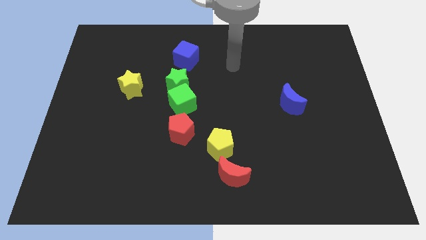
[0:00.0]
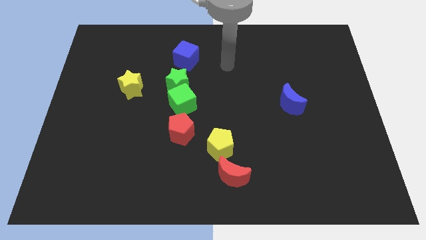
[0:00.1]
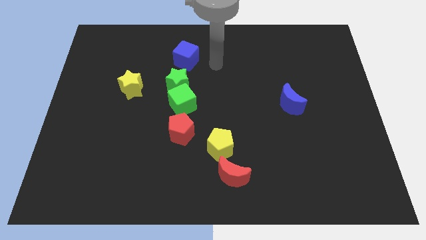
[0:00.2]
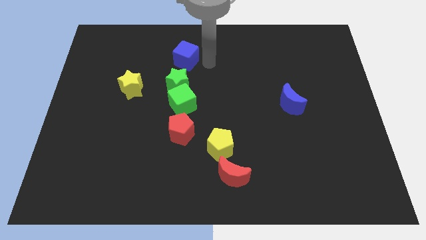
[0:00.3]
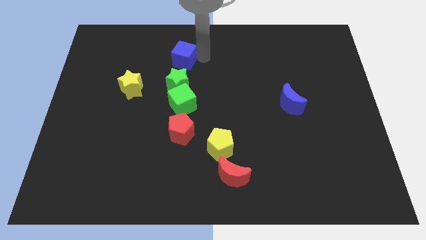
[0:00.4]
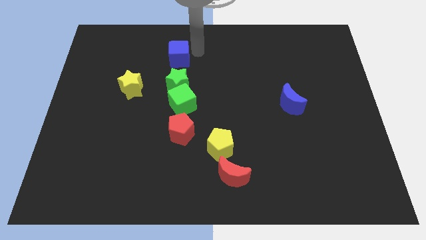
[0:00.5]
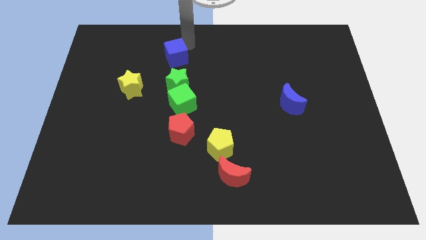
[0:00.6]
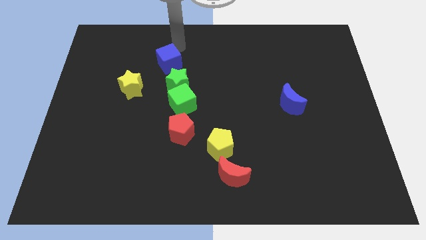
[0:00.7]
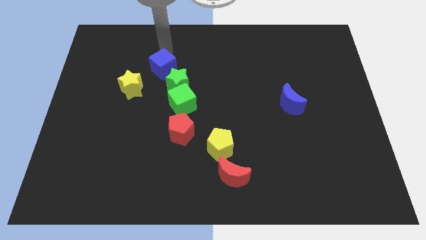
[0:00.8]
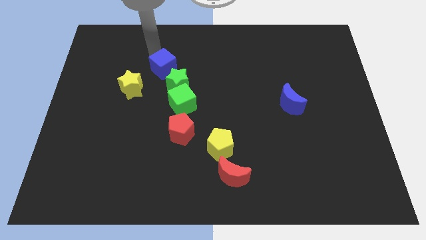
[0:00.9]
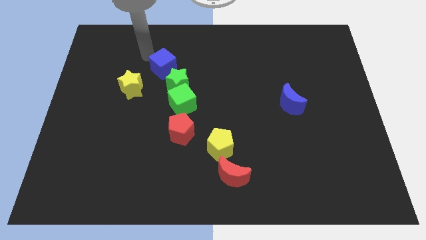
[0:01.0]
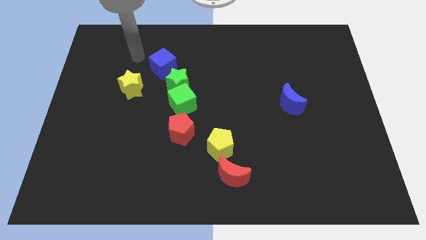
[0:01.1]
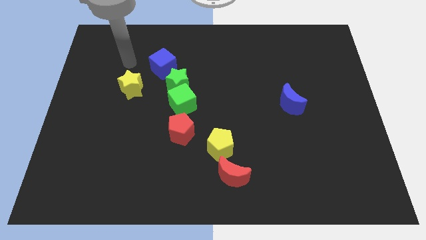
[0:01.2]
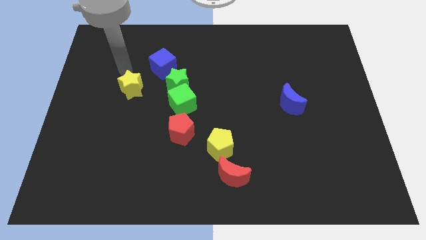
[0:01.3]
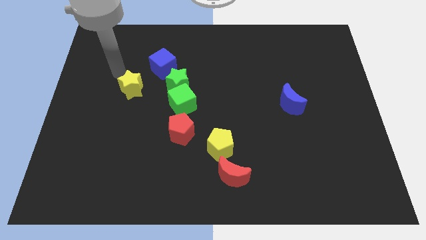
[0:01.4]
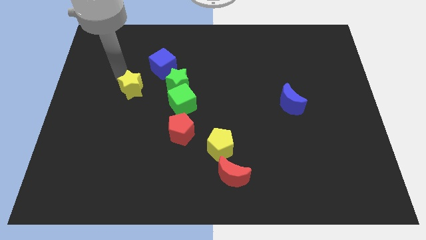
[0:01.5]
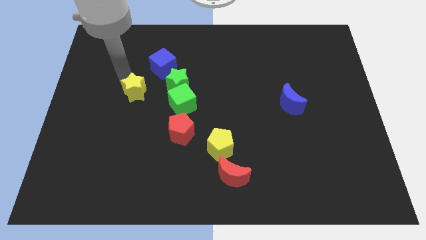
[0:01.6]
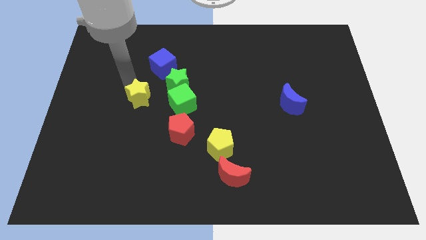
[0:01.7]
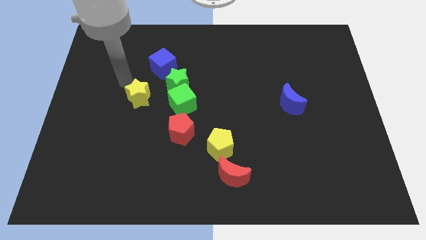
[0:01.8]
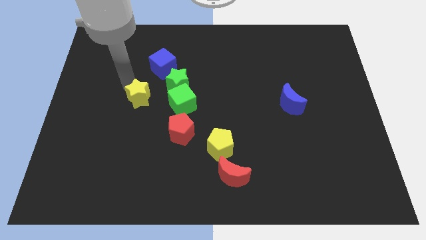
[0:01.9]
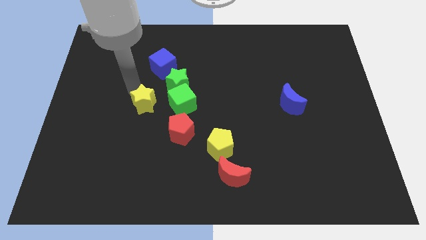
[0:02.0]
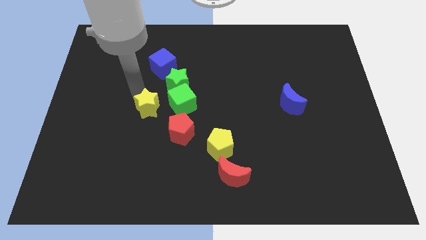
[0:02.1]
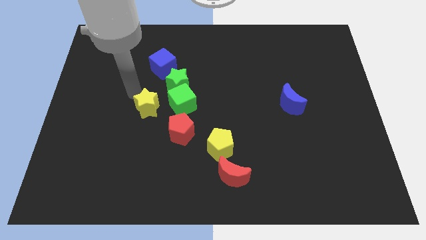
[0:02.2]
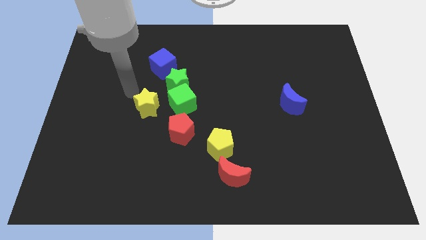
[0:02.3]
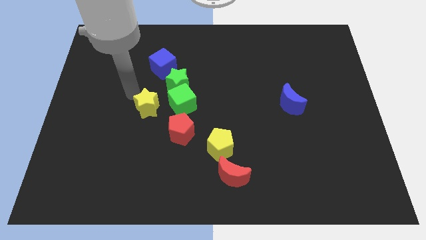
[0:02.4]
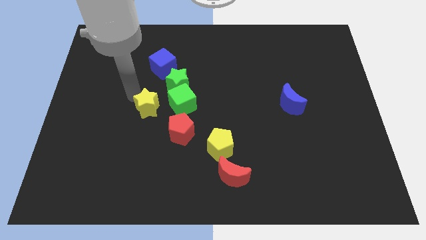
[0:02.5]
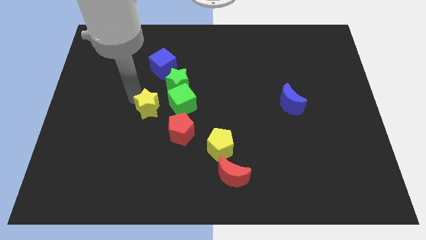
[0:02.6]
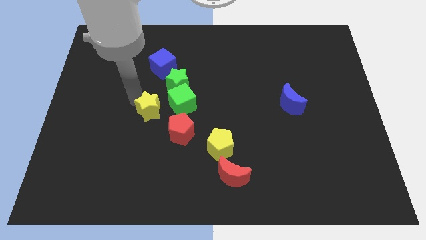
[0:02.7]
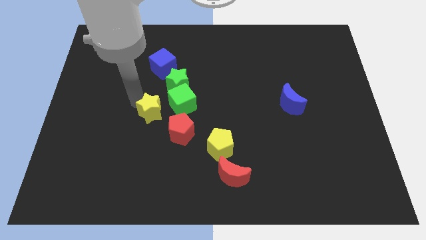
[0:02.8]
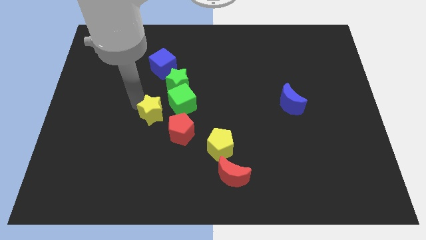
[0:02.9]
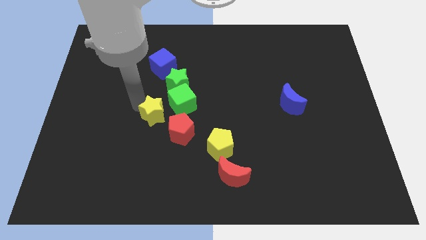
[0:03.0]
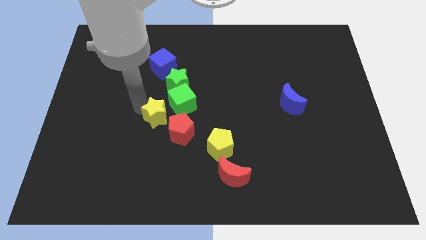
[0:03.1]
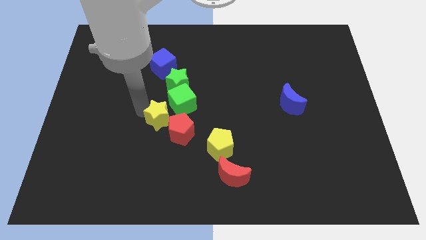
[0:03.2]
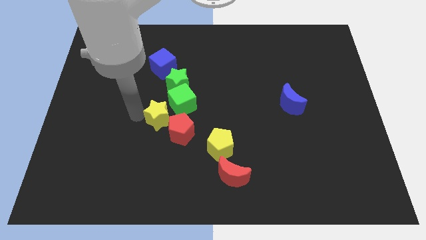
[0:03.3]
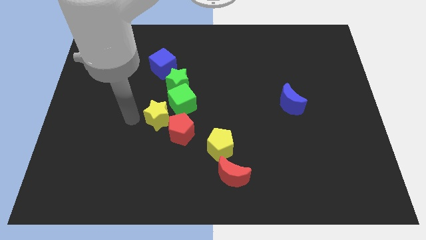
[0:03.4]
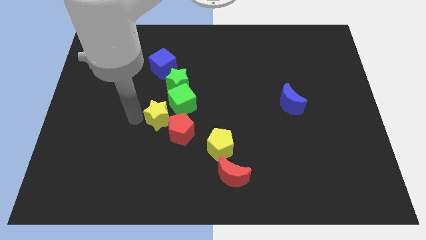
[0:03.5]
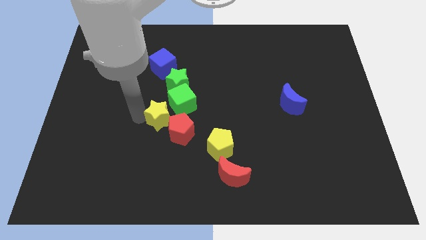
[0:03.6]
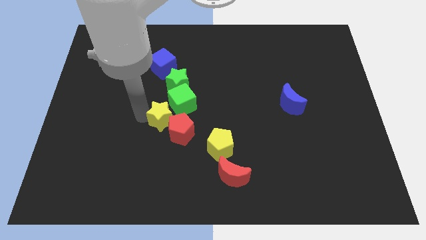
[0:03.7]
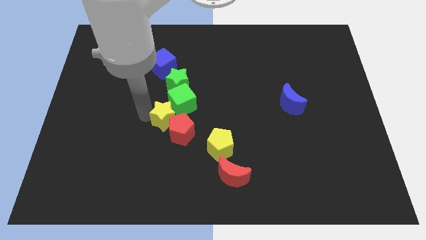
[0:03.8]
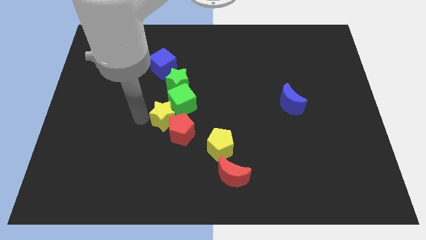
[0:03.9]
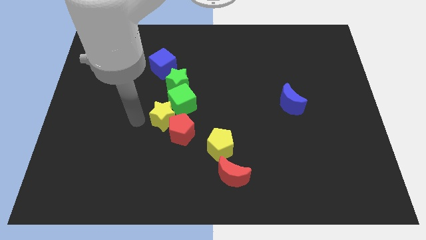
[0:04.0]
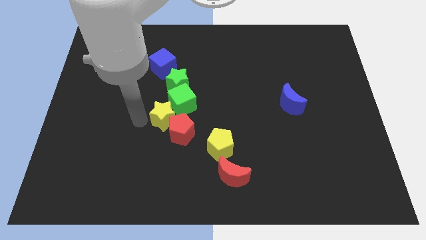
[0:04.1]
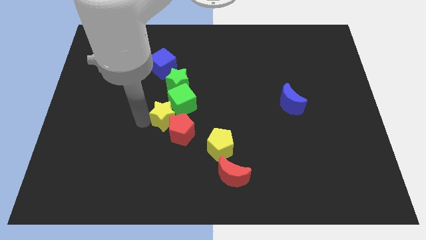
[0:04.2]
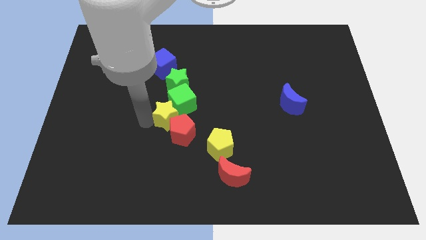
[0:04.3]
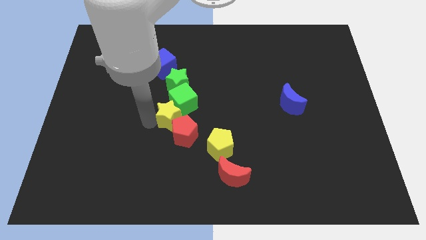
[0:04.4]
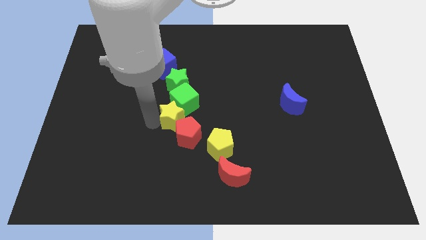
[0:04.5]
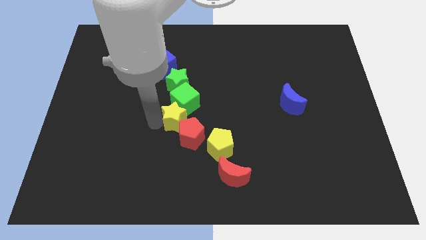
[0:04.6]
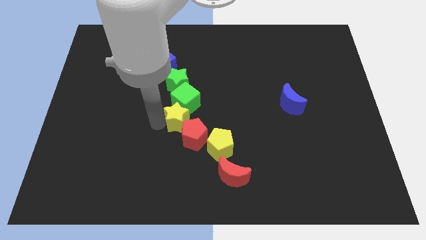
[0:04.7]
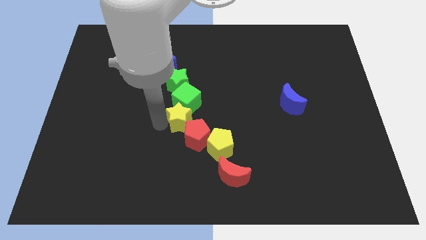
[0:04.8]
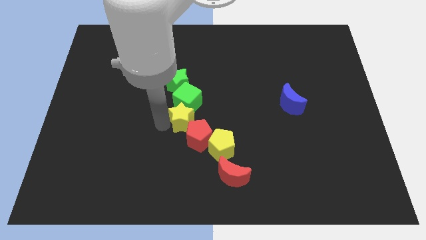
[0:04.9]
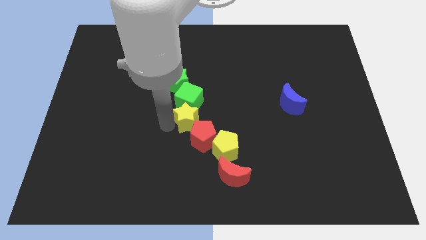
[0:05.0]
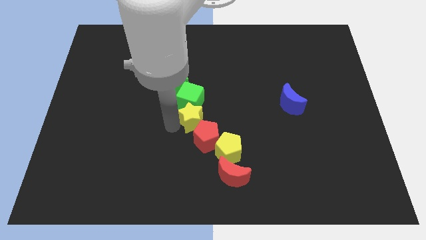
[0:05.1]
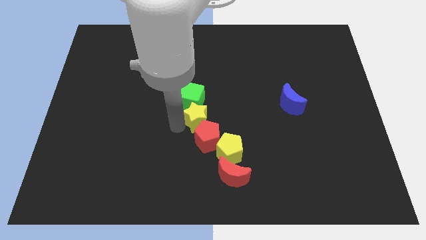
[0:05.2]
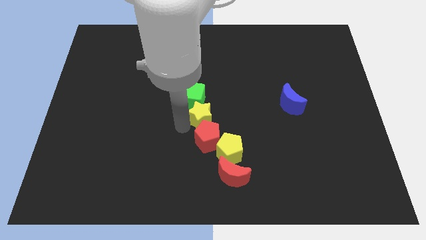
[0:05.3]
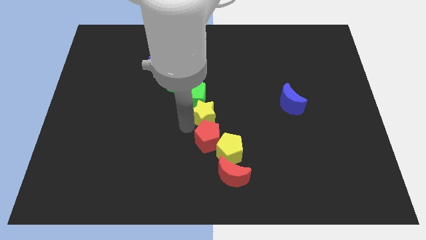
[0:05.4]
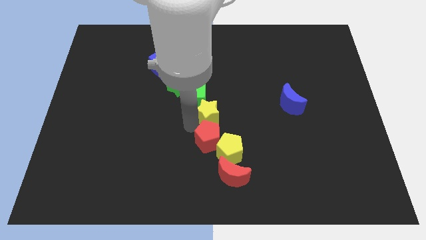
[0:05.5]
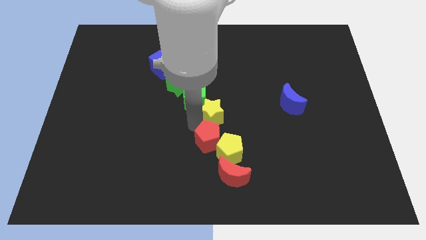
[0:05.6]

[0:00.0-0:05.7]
push the yellow star to the right of the green cube

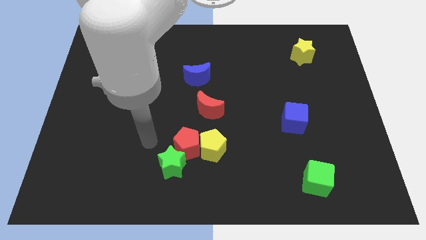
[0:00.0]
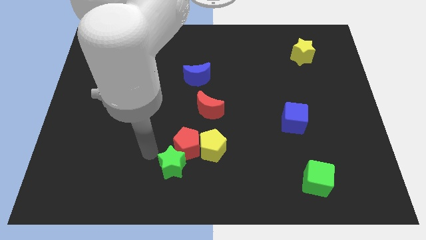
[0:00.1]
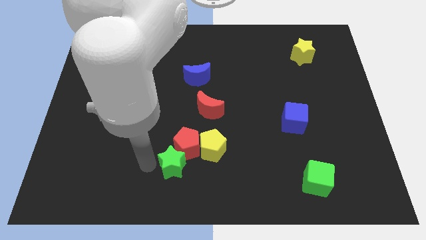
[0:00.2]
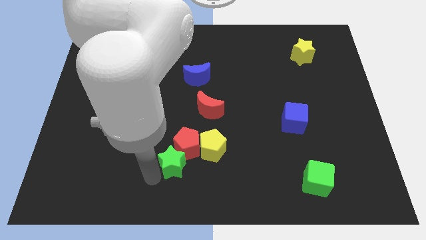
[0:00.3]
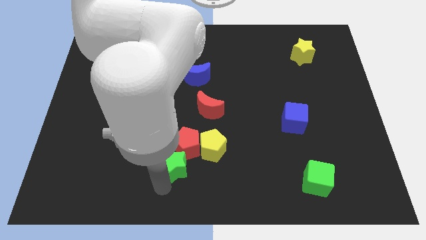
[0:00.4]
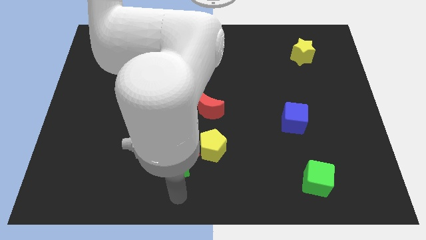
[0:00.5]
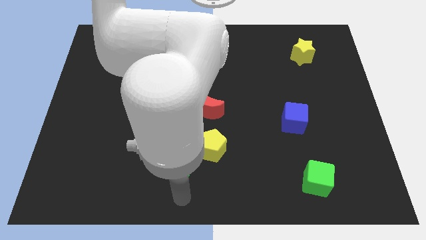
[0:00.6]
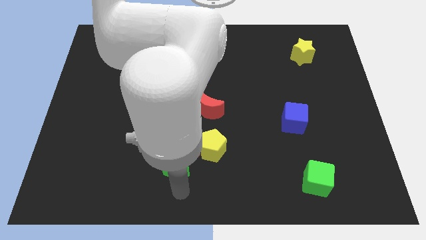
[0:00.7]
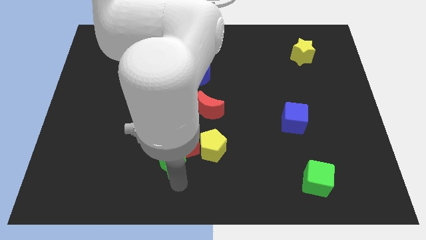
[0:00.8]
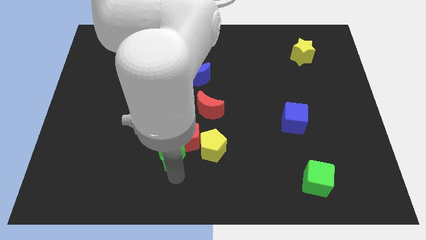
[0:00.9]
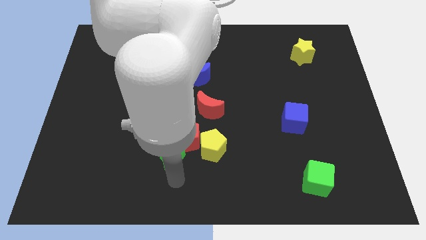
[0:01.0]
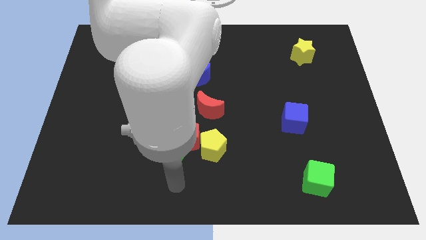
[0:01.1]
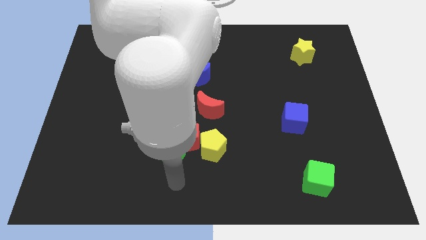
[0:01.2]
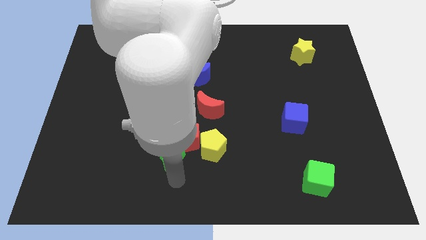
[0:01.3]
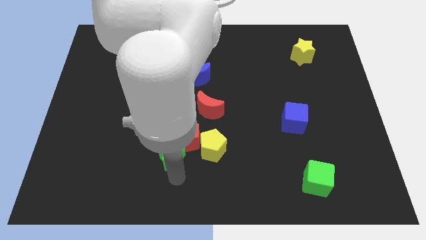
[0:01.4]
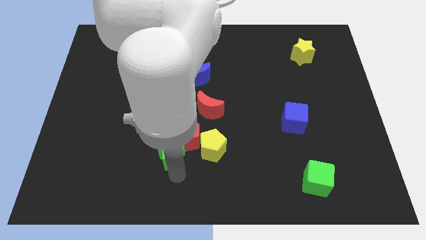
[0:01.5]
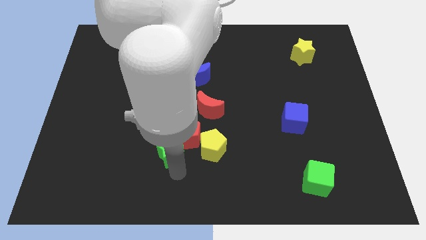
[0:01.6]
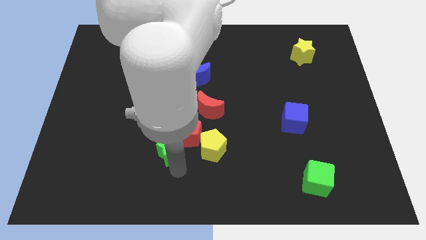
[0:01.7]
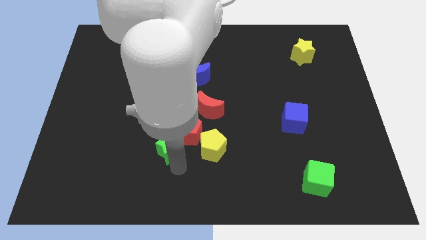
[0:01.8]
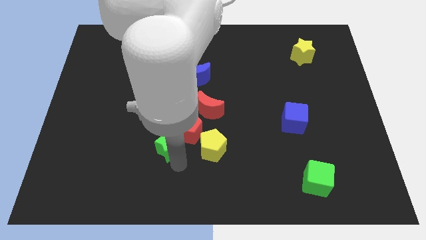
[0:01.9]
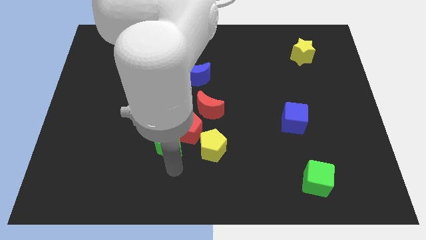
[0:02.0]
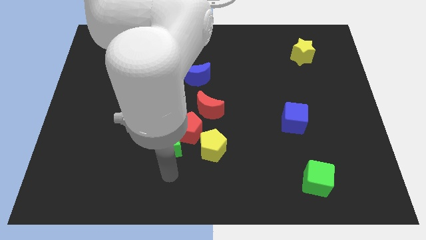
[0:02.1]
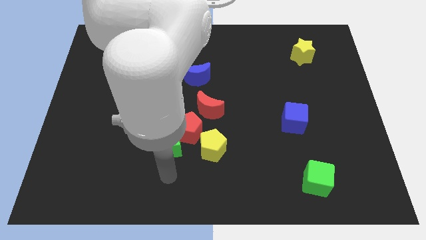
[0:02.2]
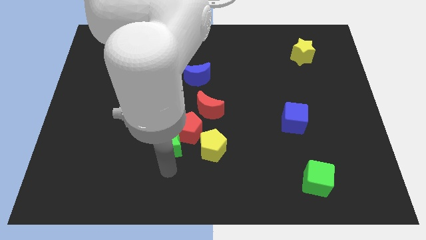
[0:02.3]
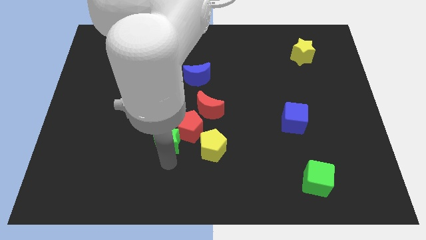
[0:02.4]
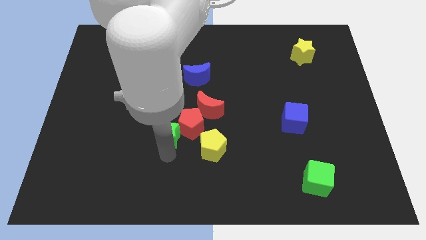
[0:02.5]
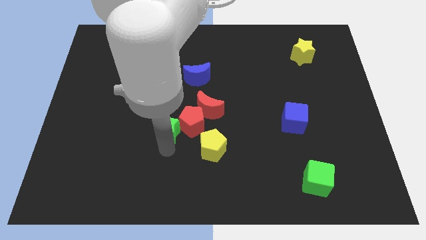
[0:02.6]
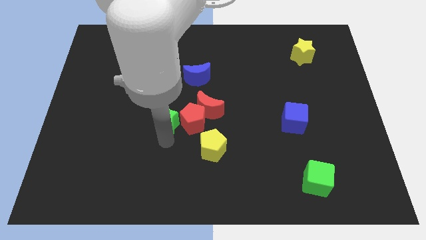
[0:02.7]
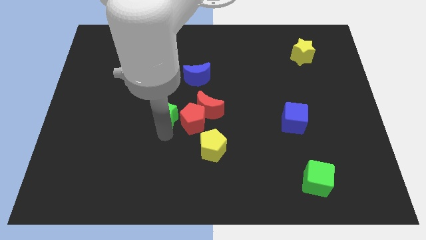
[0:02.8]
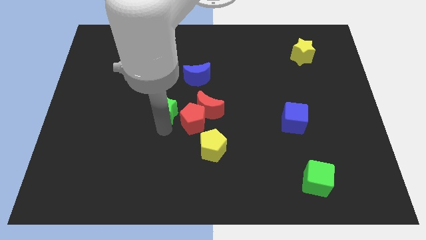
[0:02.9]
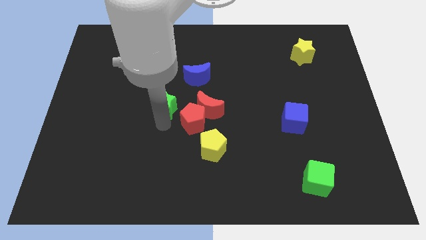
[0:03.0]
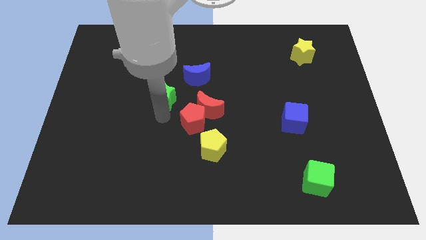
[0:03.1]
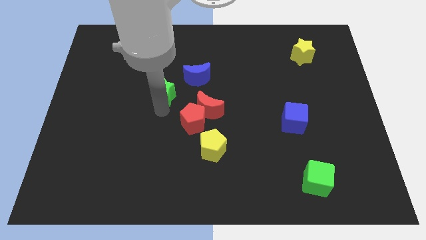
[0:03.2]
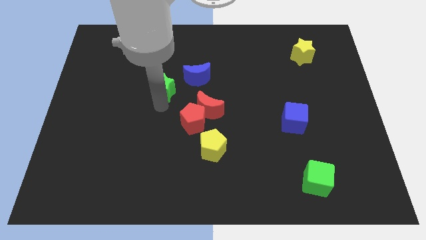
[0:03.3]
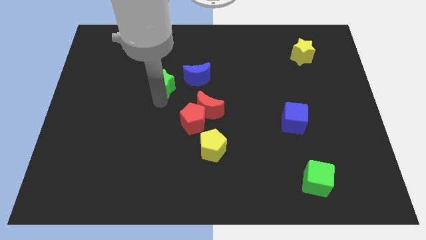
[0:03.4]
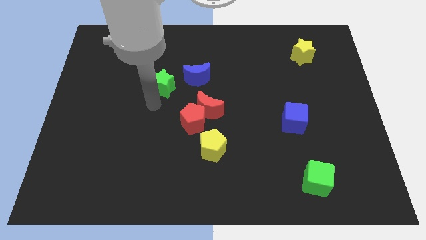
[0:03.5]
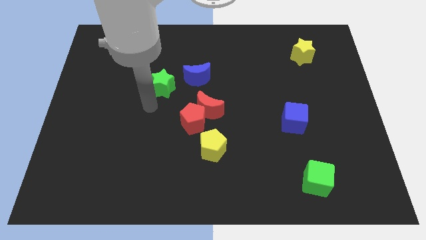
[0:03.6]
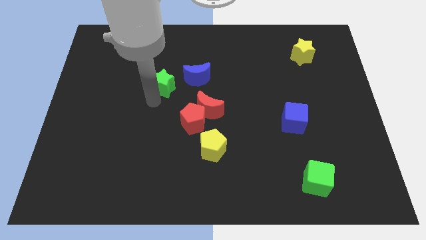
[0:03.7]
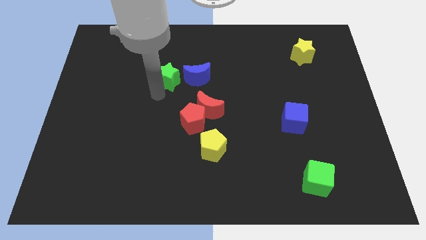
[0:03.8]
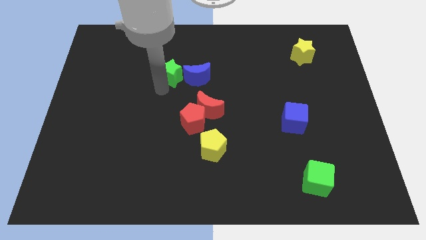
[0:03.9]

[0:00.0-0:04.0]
put the green star diagonally up and to the left of the blue moon
